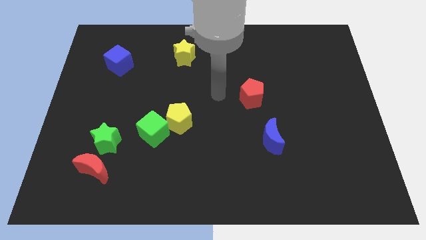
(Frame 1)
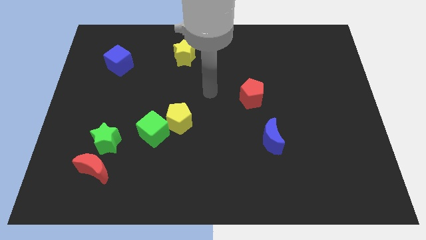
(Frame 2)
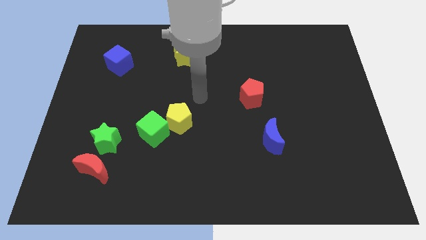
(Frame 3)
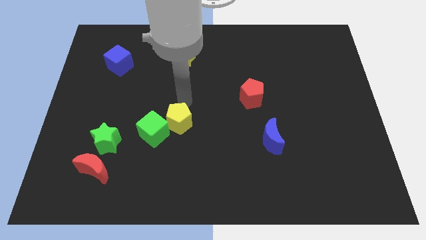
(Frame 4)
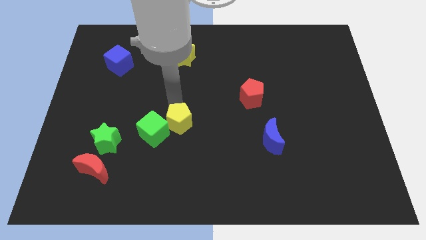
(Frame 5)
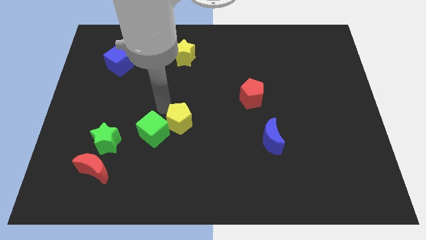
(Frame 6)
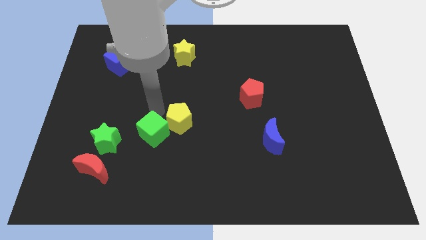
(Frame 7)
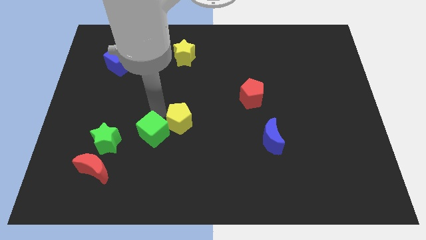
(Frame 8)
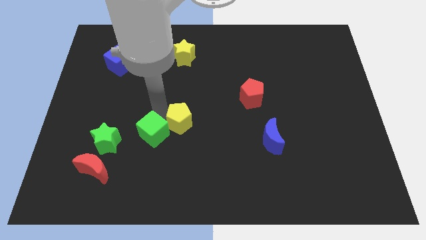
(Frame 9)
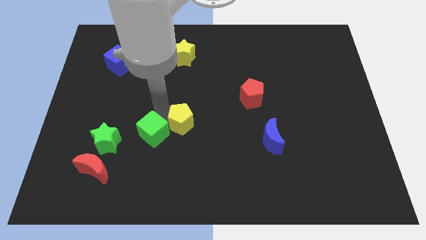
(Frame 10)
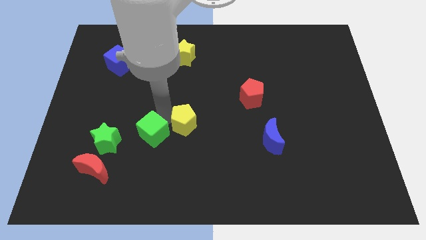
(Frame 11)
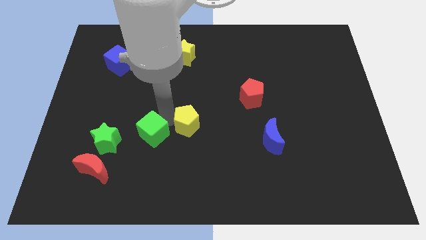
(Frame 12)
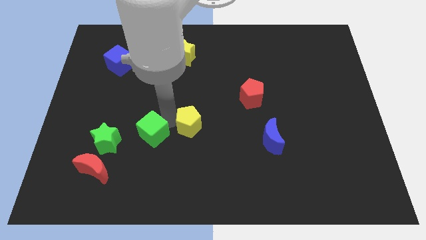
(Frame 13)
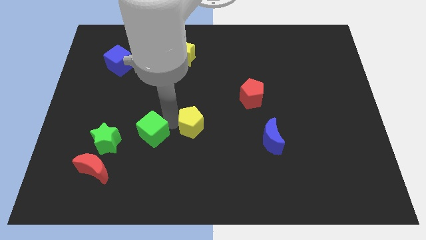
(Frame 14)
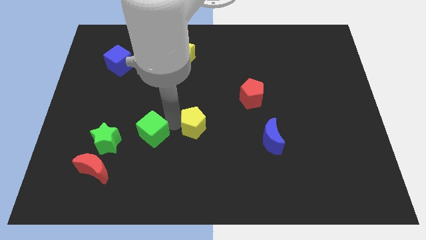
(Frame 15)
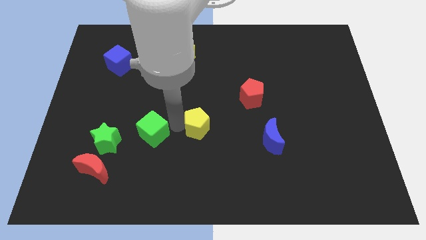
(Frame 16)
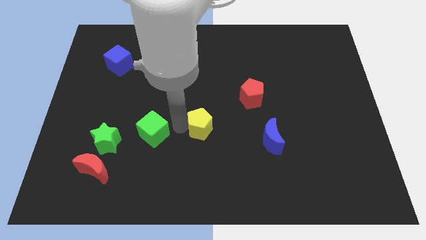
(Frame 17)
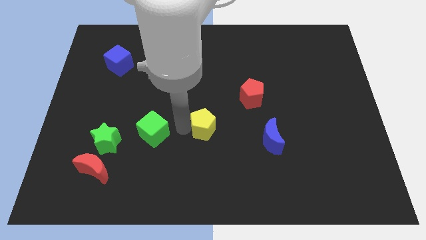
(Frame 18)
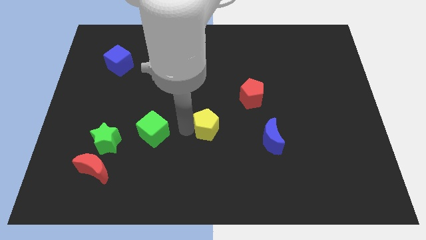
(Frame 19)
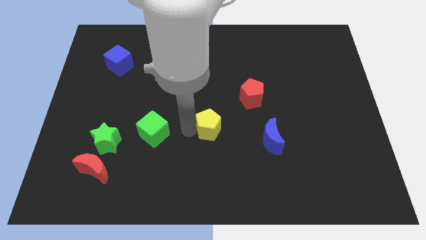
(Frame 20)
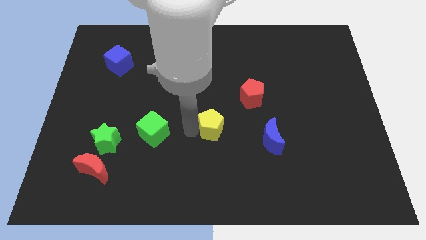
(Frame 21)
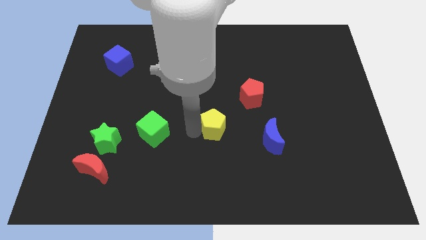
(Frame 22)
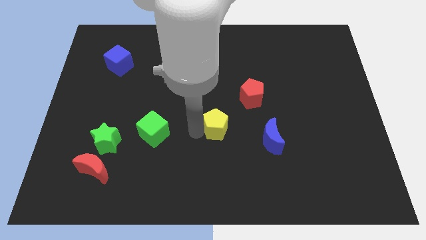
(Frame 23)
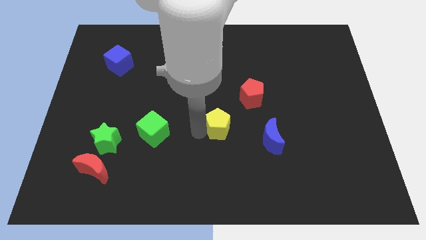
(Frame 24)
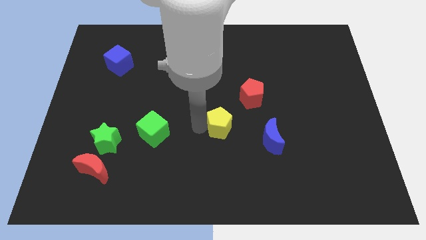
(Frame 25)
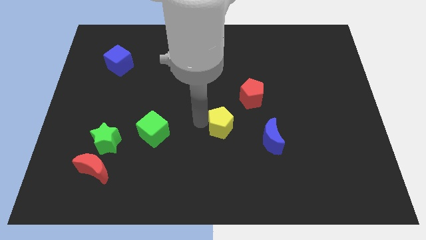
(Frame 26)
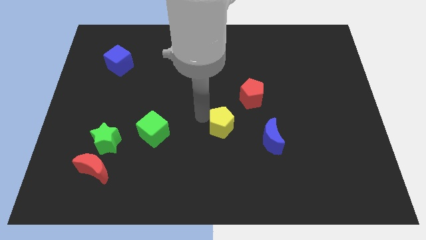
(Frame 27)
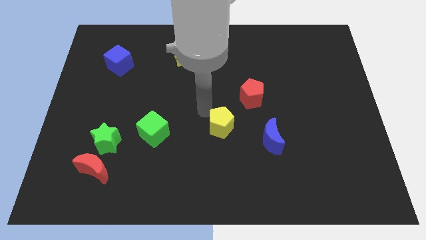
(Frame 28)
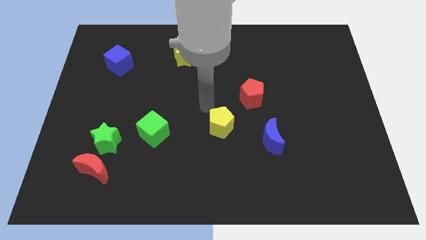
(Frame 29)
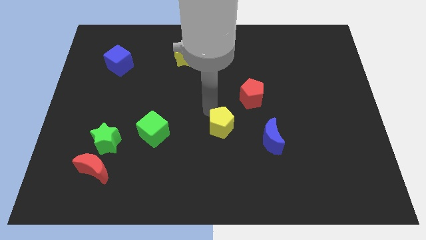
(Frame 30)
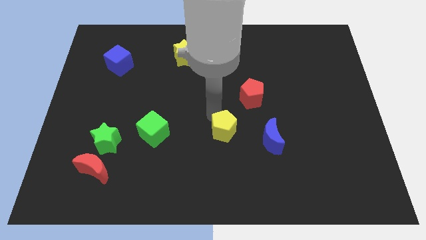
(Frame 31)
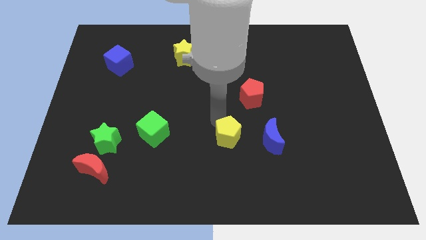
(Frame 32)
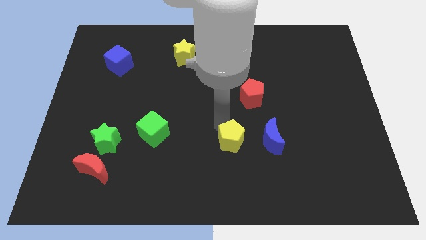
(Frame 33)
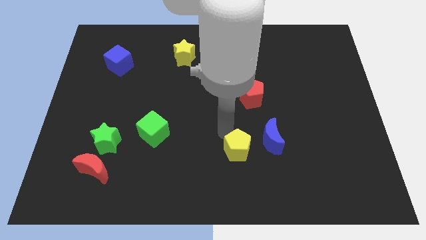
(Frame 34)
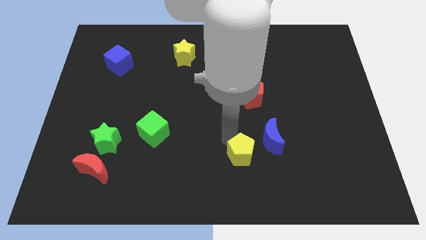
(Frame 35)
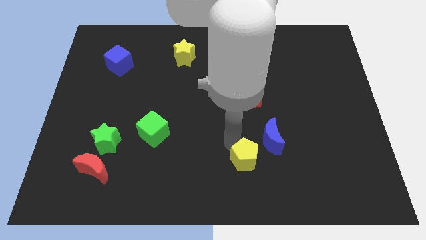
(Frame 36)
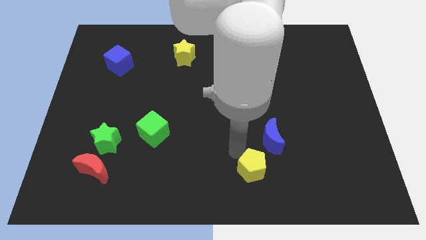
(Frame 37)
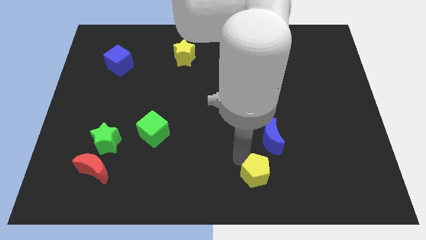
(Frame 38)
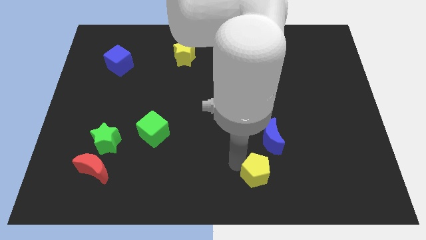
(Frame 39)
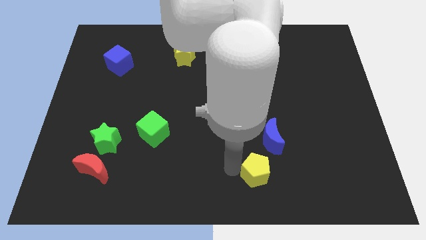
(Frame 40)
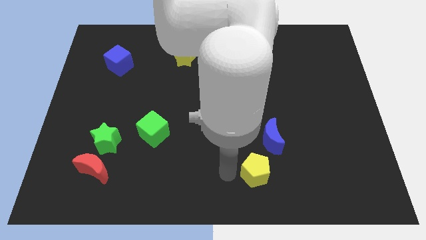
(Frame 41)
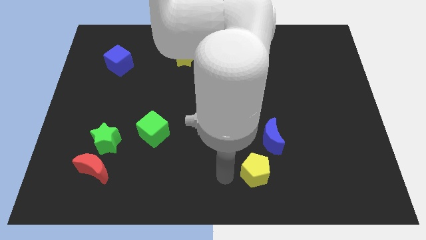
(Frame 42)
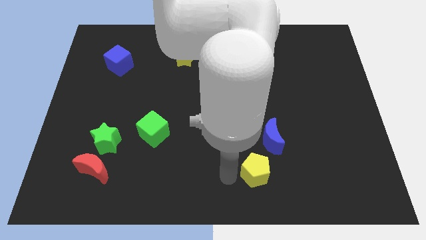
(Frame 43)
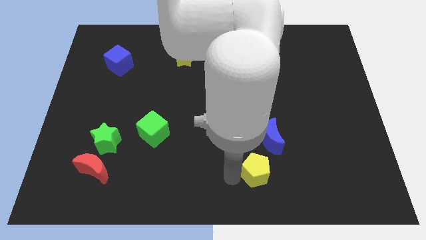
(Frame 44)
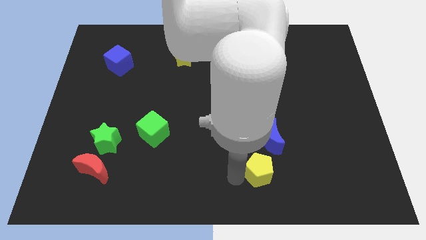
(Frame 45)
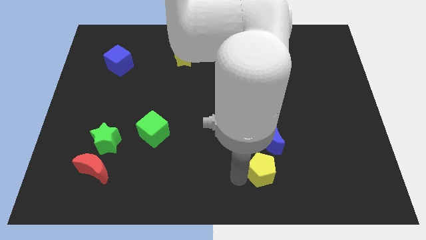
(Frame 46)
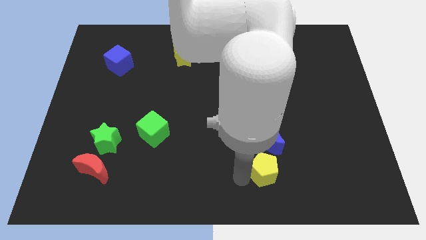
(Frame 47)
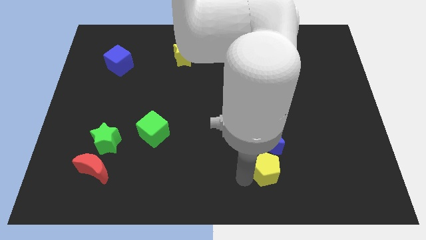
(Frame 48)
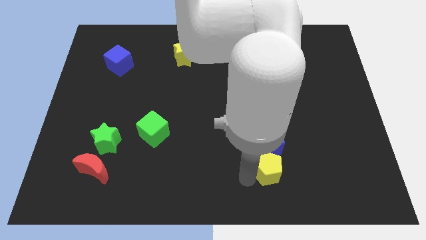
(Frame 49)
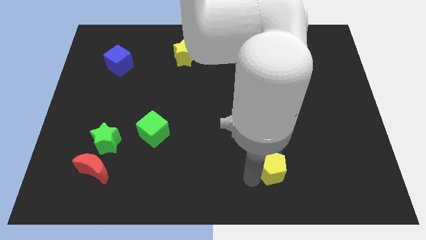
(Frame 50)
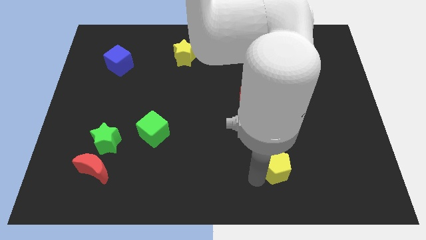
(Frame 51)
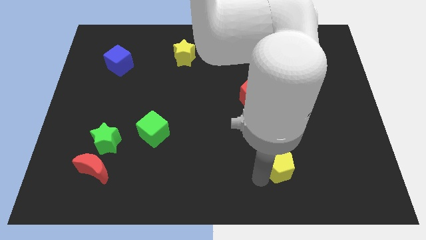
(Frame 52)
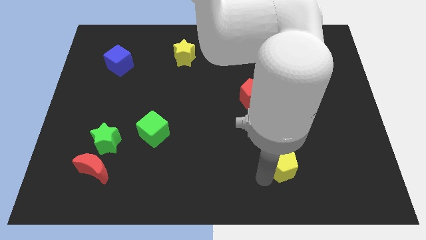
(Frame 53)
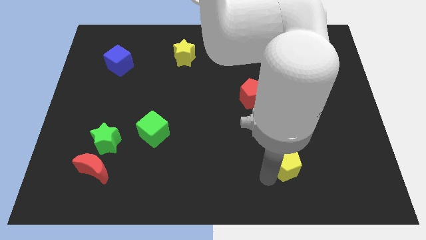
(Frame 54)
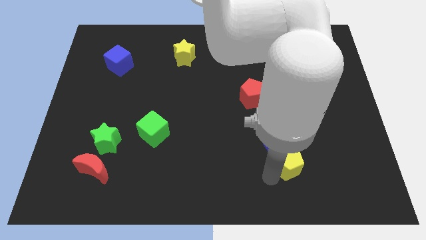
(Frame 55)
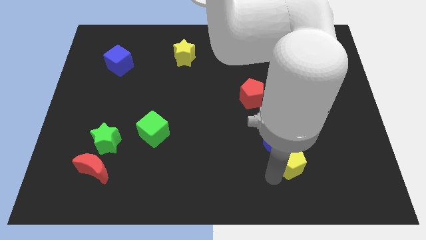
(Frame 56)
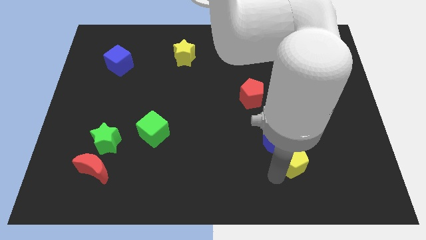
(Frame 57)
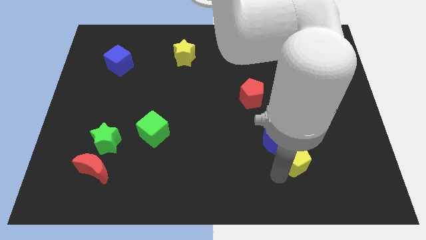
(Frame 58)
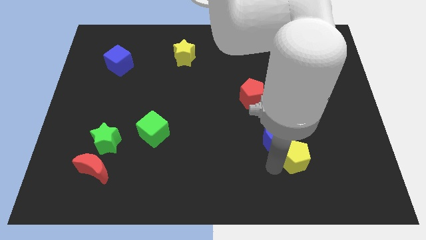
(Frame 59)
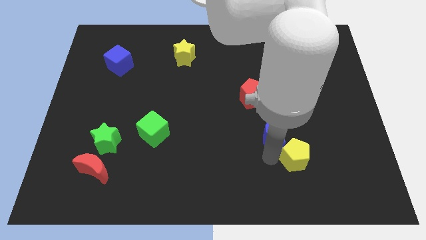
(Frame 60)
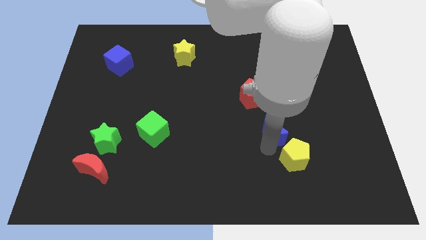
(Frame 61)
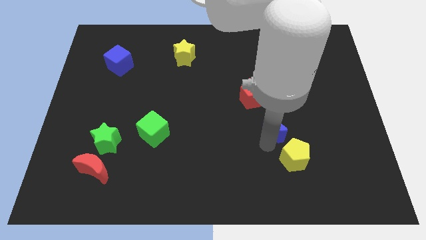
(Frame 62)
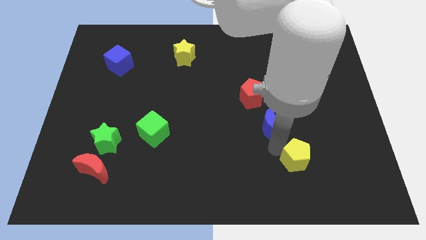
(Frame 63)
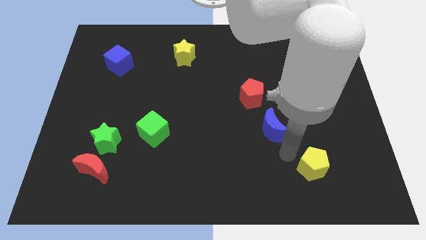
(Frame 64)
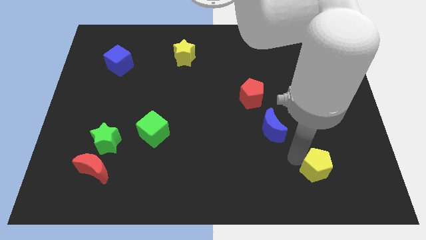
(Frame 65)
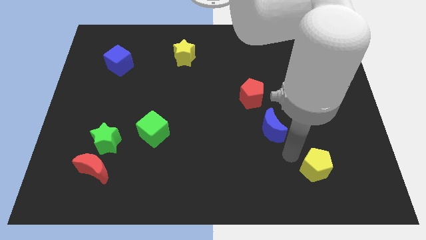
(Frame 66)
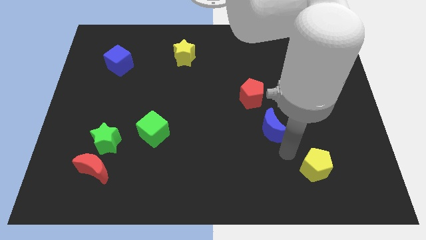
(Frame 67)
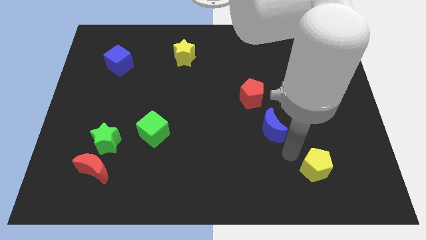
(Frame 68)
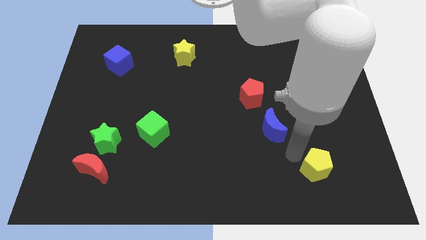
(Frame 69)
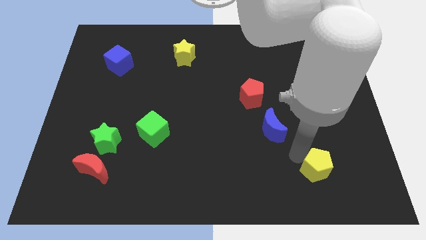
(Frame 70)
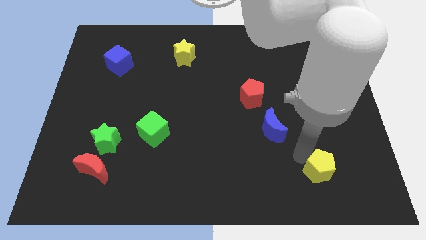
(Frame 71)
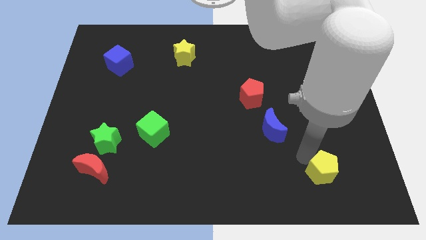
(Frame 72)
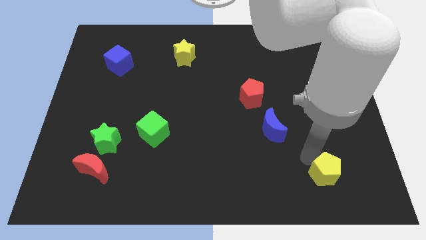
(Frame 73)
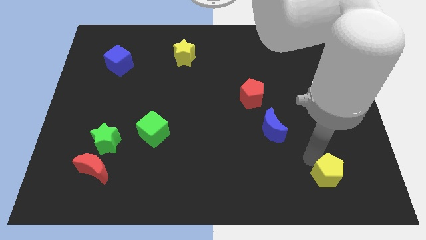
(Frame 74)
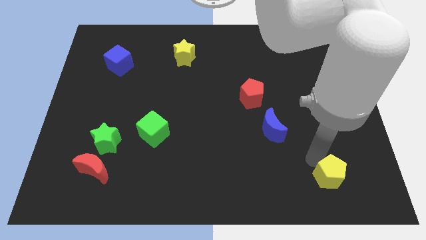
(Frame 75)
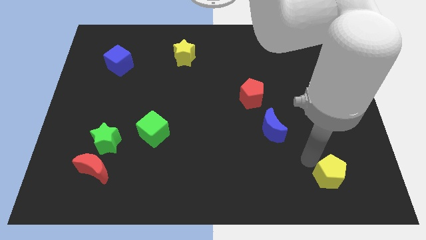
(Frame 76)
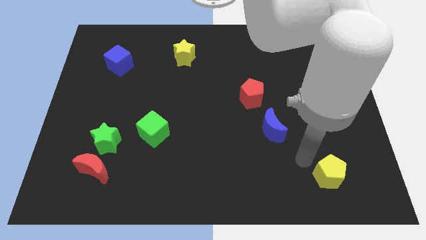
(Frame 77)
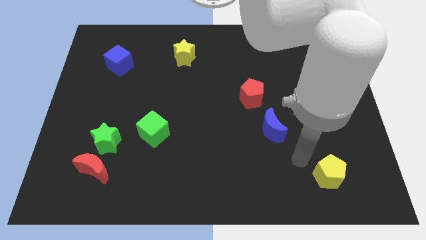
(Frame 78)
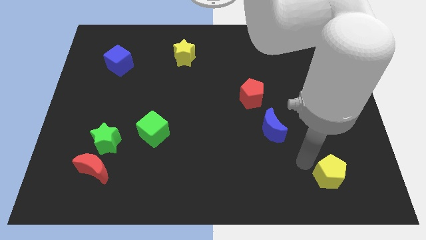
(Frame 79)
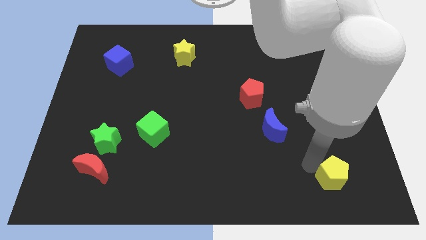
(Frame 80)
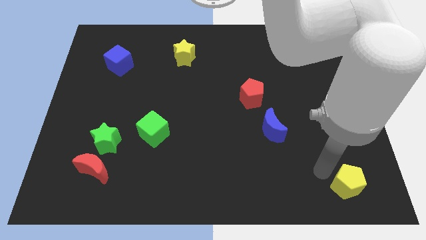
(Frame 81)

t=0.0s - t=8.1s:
move the yellow pentagon to the lower right corner
